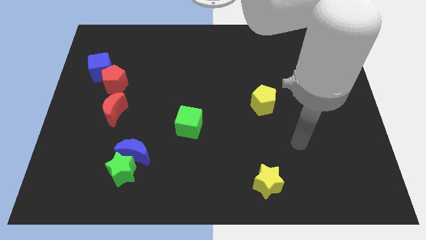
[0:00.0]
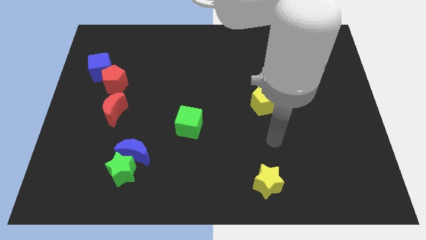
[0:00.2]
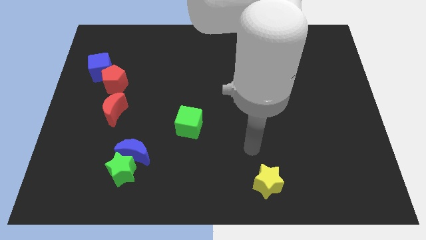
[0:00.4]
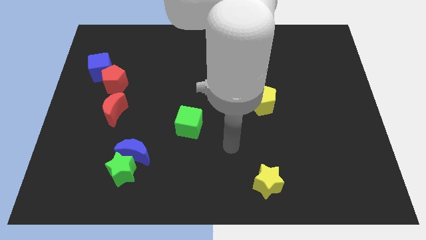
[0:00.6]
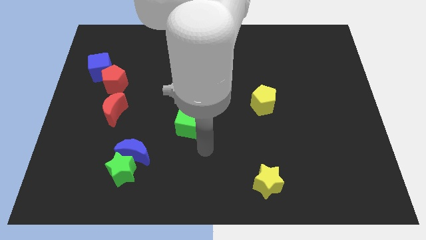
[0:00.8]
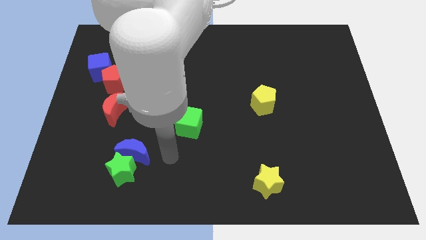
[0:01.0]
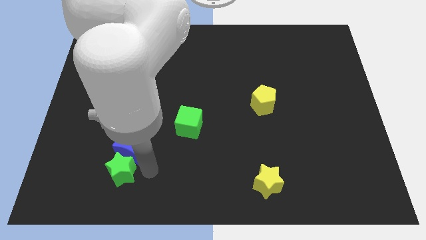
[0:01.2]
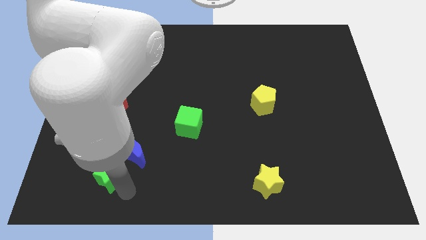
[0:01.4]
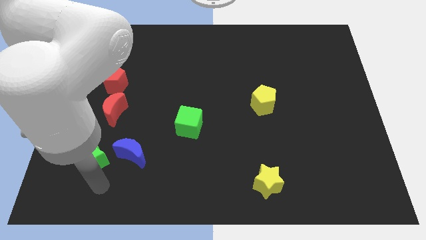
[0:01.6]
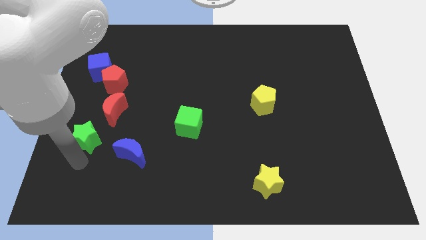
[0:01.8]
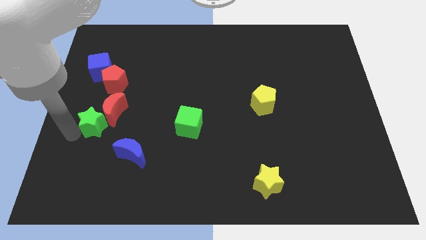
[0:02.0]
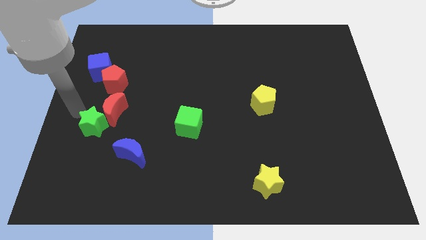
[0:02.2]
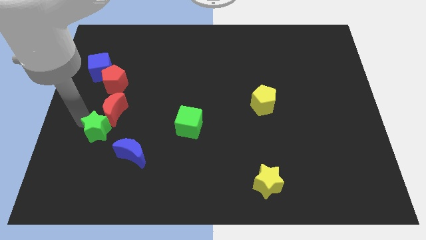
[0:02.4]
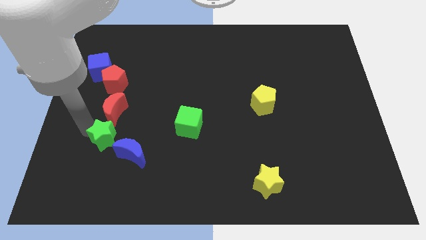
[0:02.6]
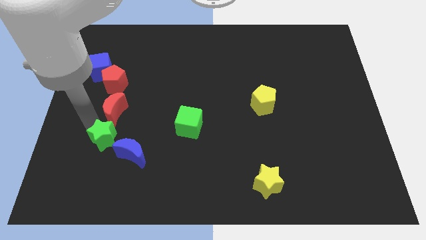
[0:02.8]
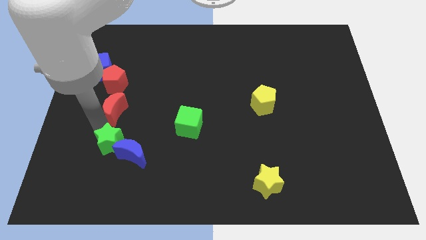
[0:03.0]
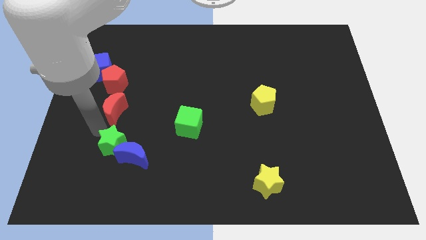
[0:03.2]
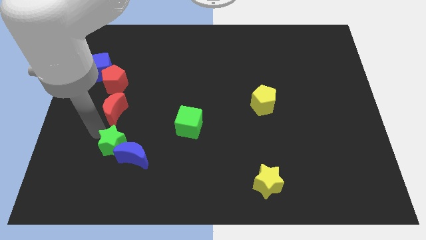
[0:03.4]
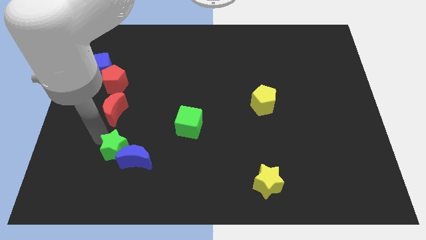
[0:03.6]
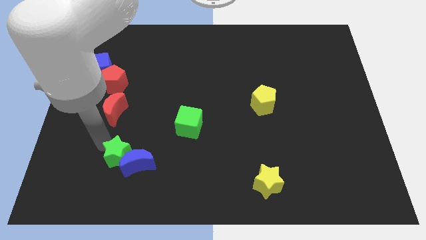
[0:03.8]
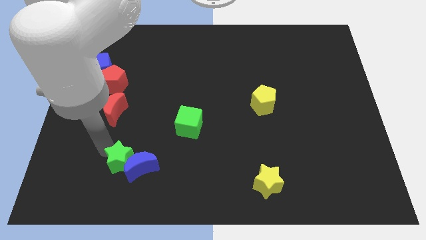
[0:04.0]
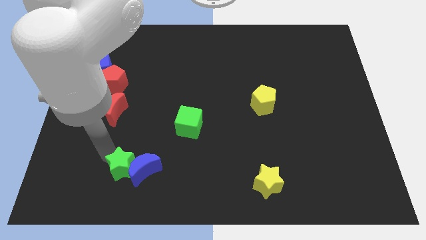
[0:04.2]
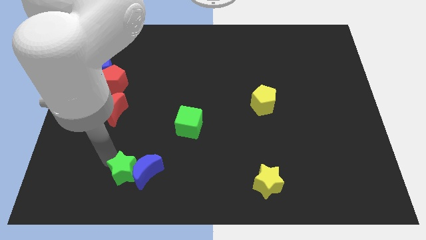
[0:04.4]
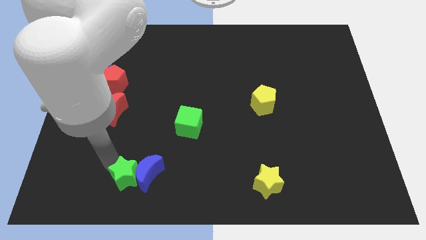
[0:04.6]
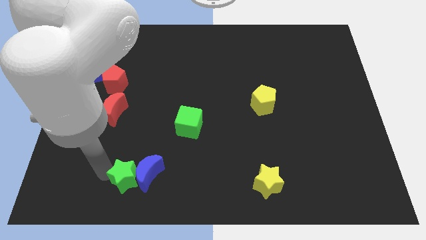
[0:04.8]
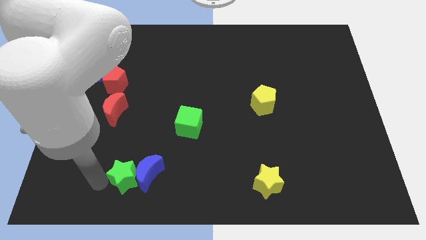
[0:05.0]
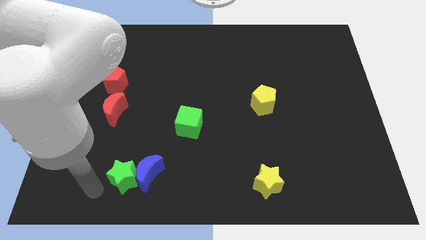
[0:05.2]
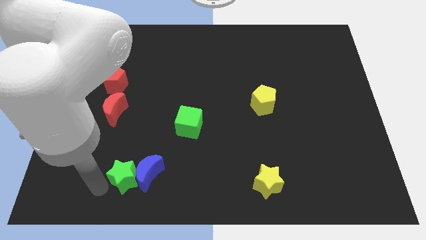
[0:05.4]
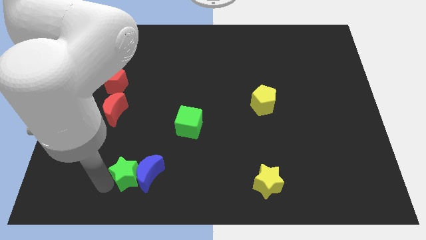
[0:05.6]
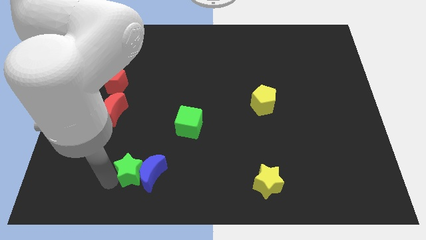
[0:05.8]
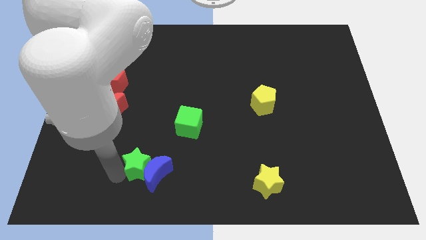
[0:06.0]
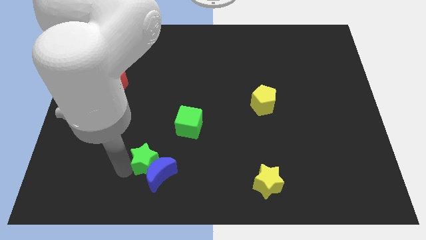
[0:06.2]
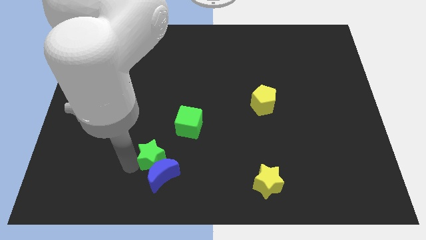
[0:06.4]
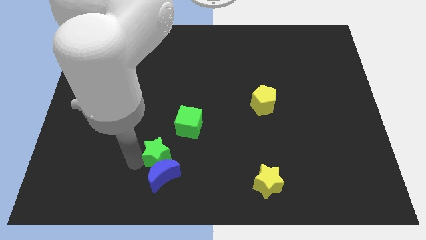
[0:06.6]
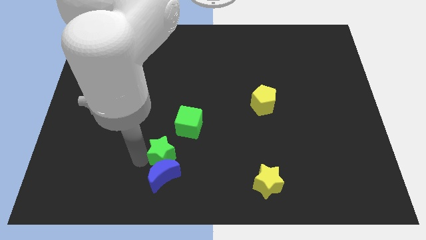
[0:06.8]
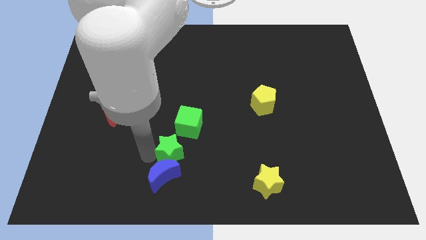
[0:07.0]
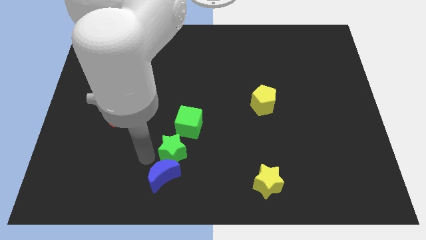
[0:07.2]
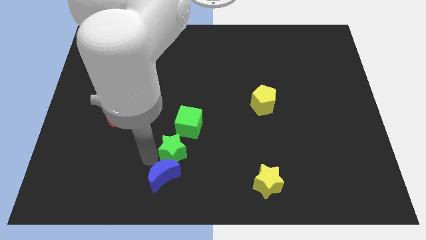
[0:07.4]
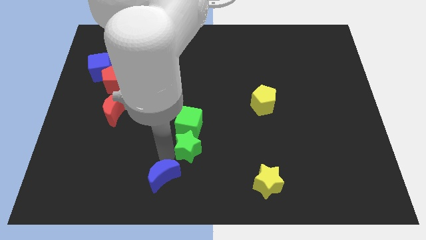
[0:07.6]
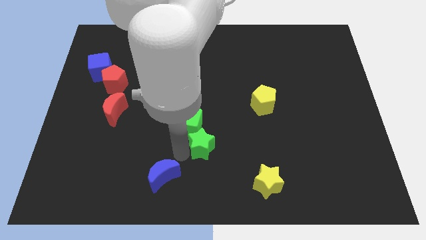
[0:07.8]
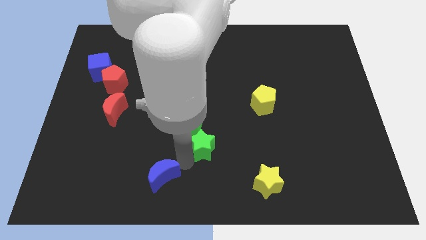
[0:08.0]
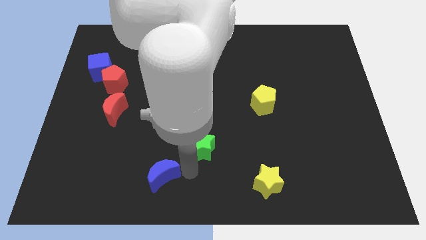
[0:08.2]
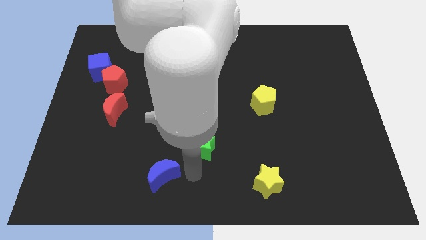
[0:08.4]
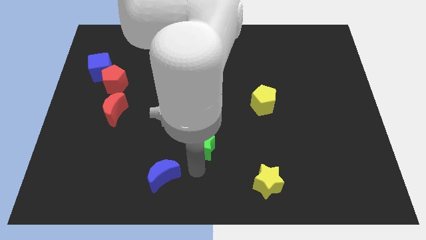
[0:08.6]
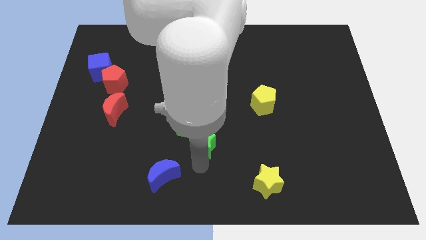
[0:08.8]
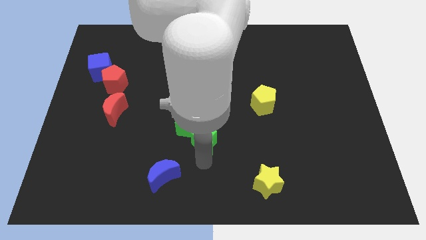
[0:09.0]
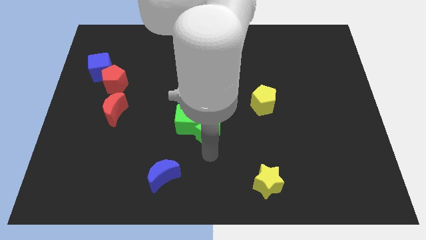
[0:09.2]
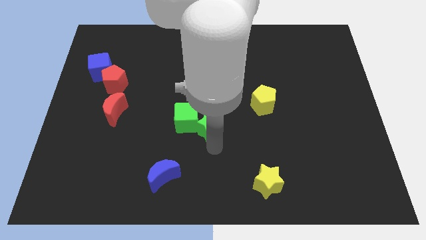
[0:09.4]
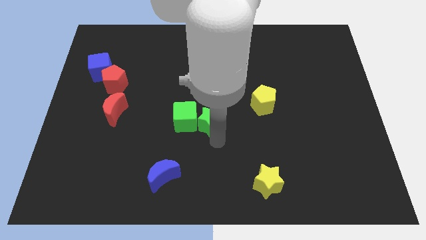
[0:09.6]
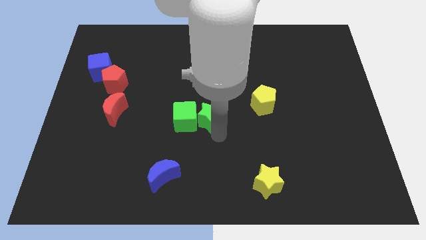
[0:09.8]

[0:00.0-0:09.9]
slide the green star to the left of the yellow pentagon

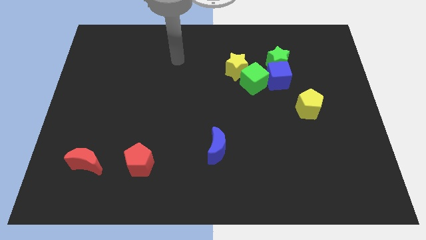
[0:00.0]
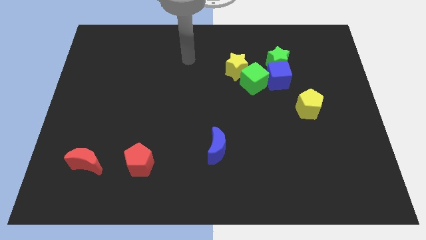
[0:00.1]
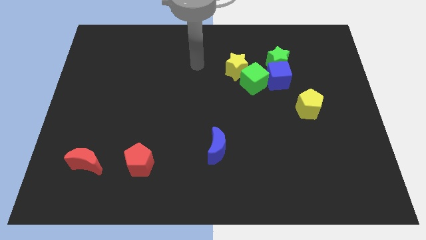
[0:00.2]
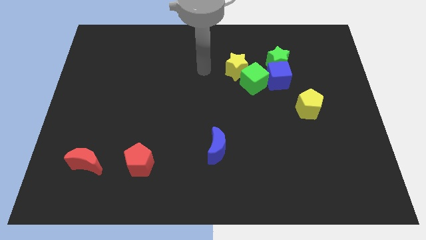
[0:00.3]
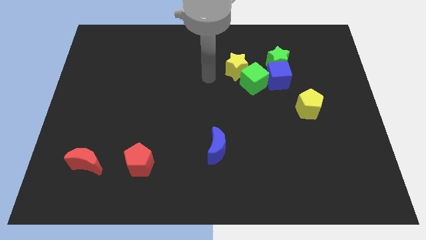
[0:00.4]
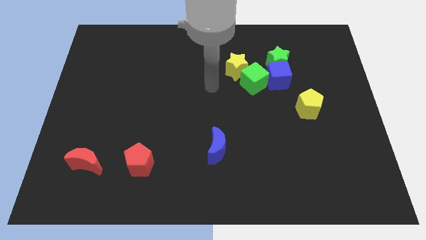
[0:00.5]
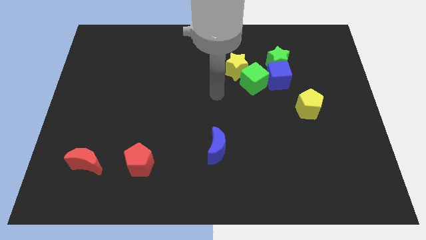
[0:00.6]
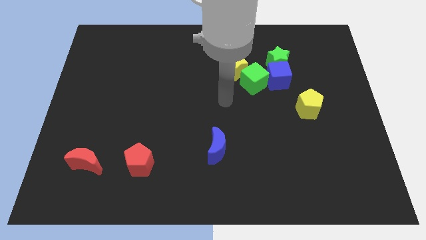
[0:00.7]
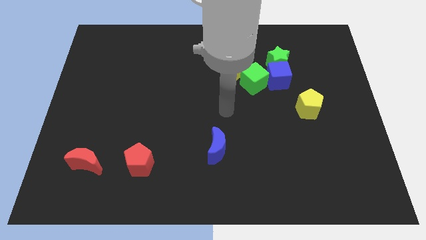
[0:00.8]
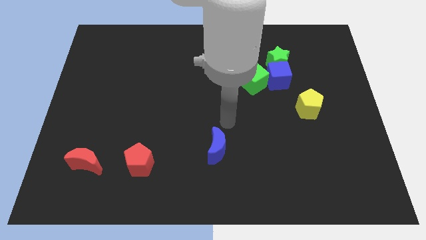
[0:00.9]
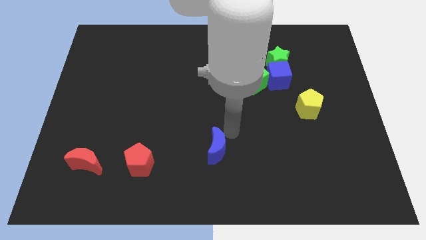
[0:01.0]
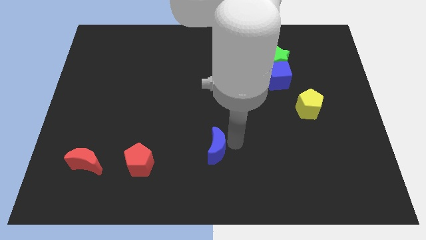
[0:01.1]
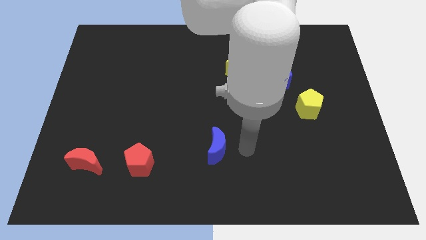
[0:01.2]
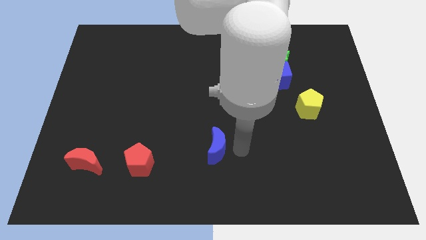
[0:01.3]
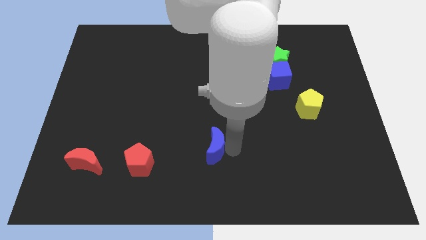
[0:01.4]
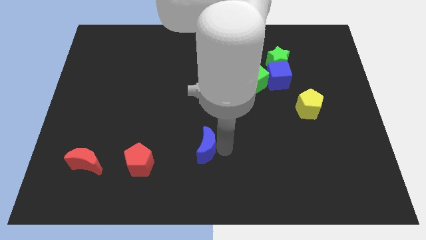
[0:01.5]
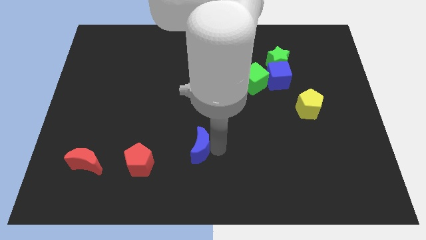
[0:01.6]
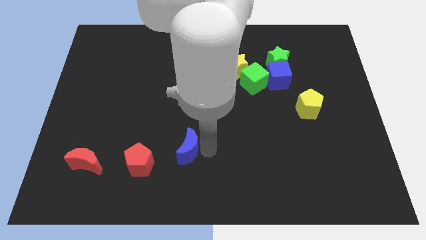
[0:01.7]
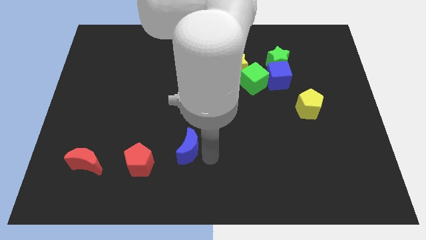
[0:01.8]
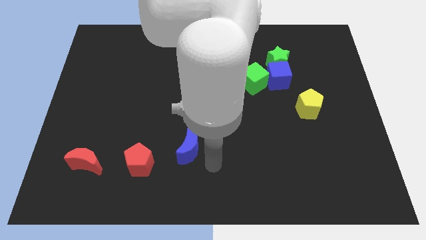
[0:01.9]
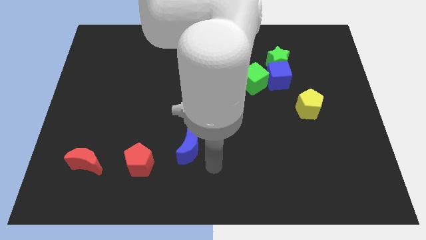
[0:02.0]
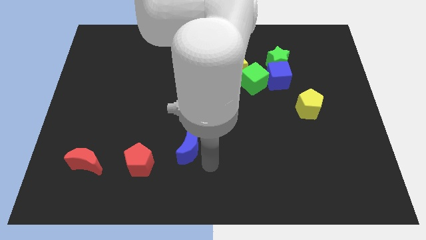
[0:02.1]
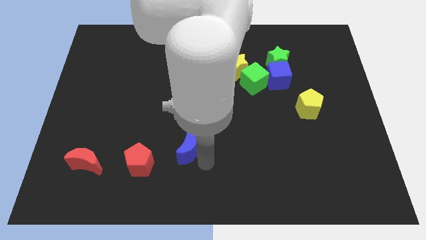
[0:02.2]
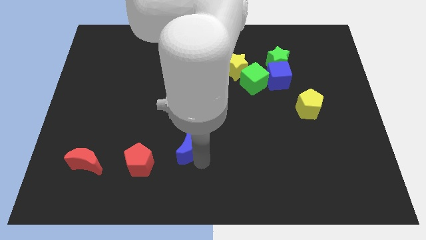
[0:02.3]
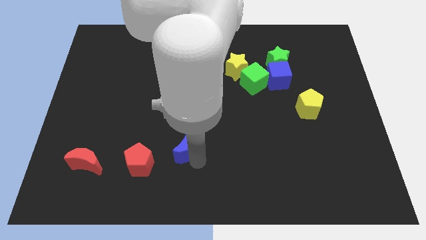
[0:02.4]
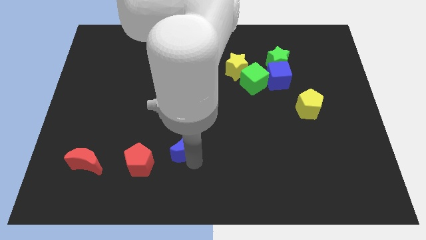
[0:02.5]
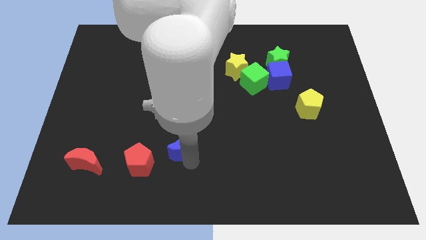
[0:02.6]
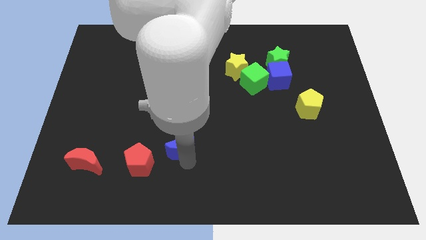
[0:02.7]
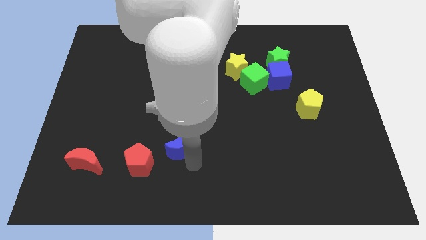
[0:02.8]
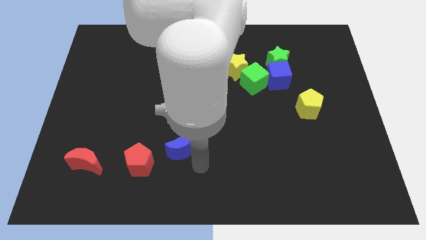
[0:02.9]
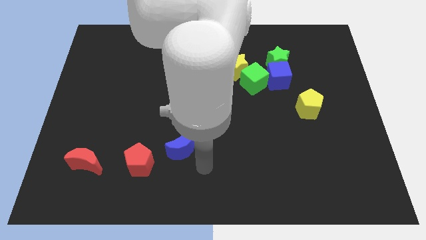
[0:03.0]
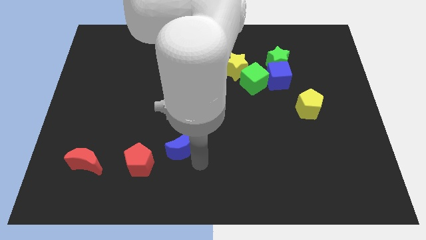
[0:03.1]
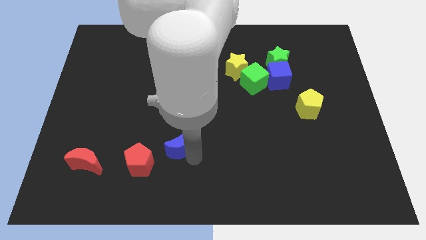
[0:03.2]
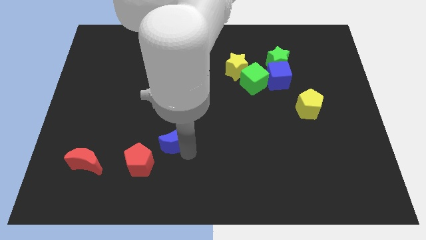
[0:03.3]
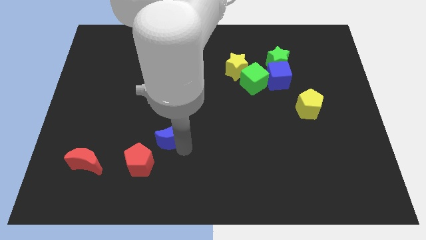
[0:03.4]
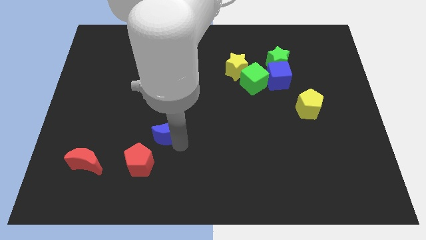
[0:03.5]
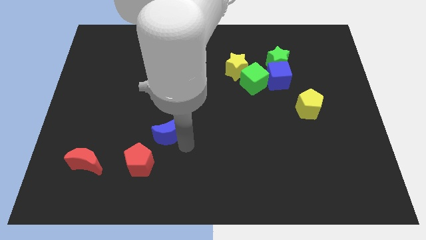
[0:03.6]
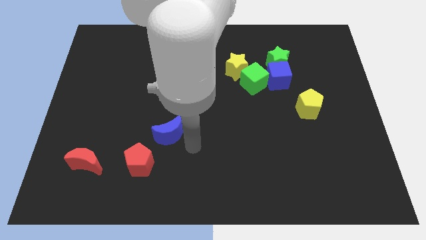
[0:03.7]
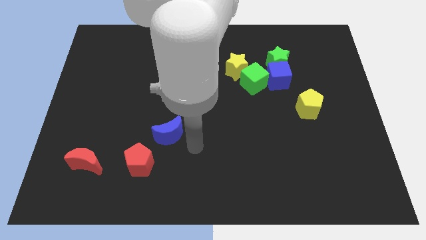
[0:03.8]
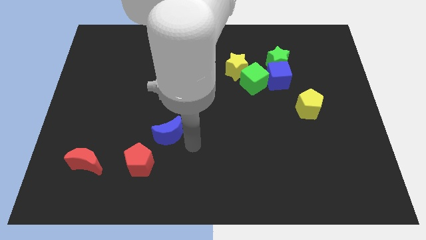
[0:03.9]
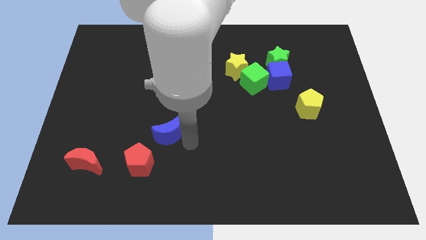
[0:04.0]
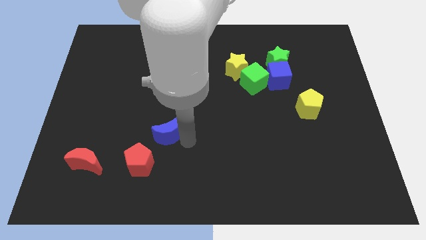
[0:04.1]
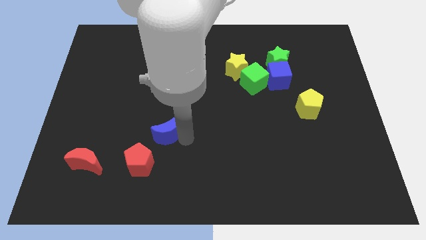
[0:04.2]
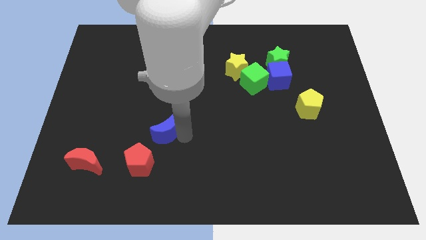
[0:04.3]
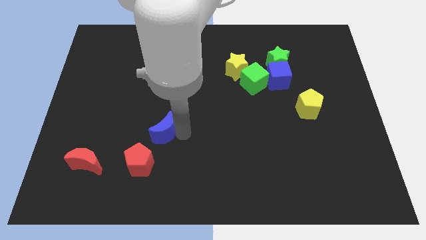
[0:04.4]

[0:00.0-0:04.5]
move the blue moon to the top side of the red pentagon
